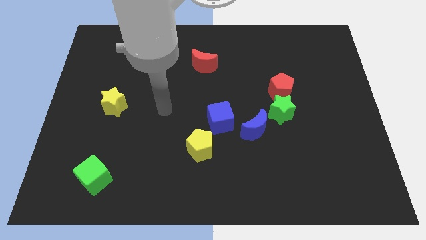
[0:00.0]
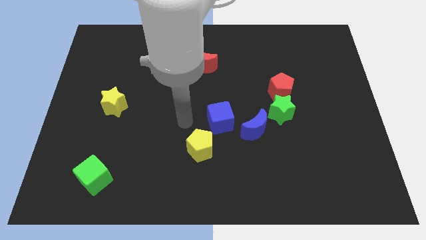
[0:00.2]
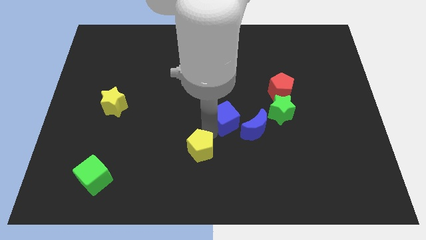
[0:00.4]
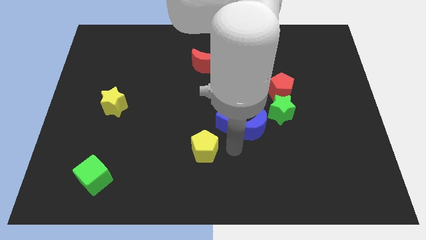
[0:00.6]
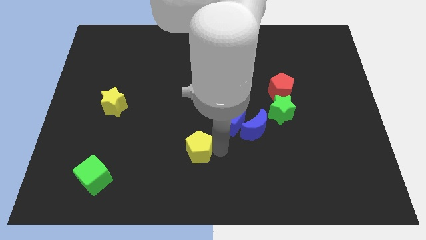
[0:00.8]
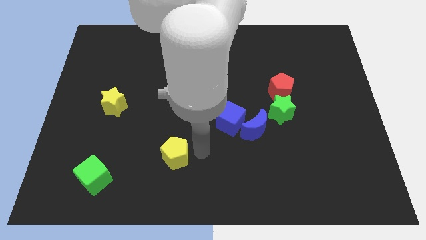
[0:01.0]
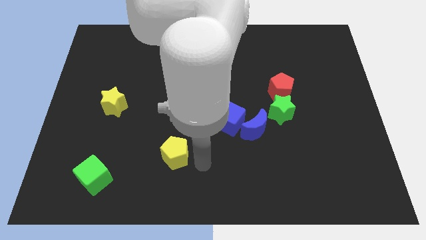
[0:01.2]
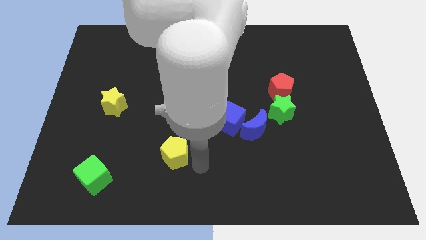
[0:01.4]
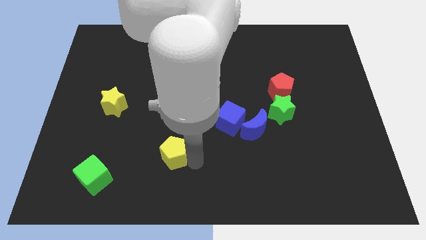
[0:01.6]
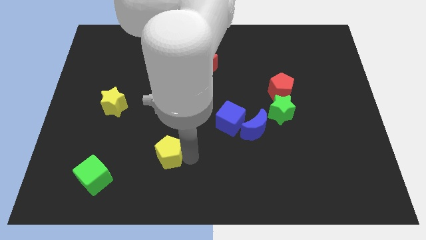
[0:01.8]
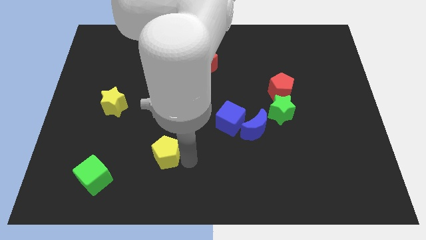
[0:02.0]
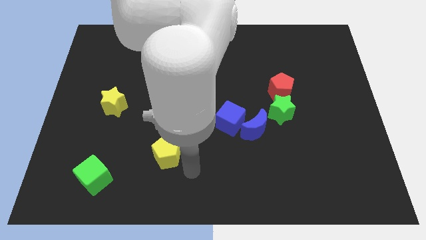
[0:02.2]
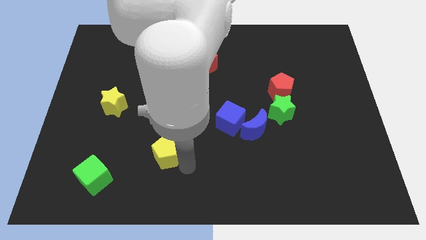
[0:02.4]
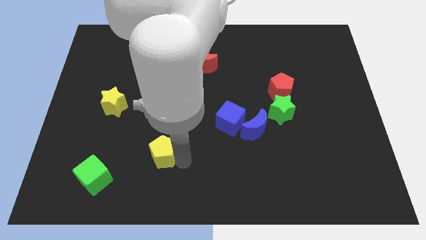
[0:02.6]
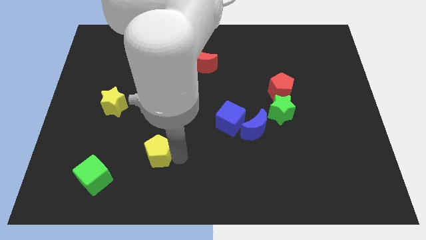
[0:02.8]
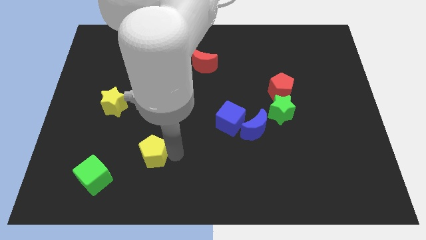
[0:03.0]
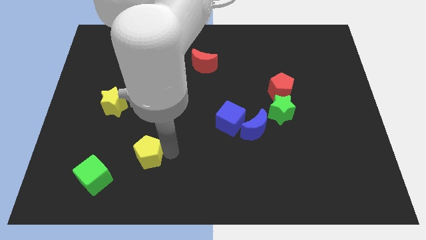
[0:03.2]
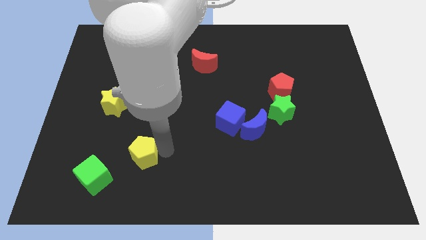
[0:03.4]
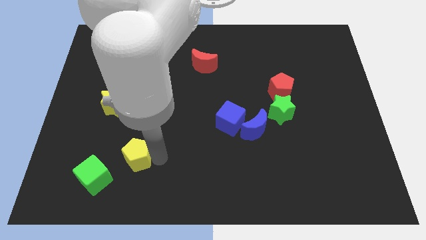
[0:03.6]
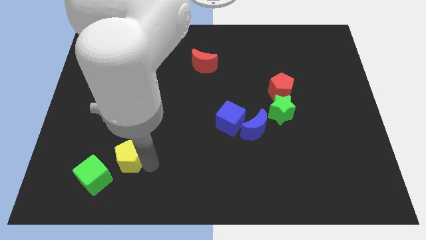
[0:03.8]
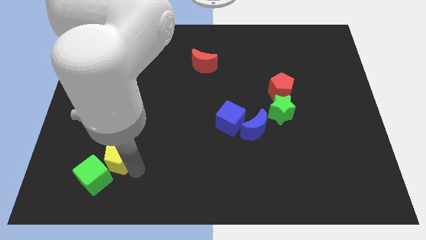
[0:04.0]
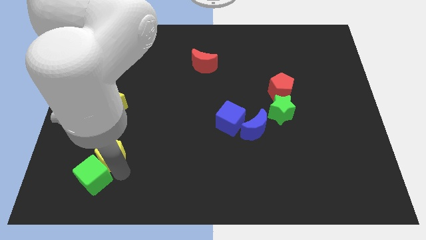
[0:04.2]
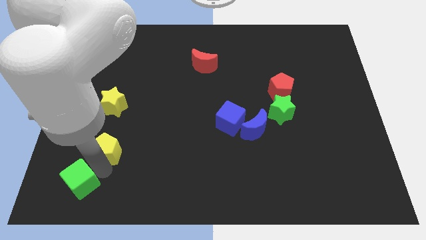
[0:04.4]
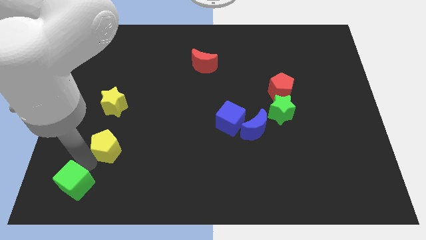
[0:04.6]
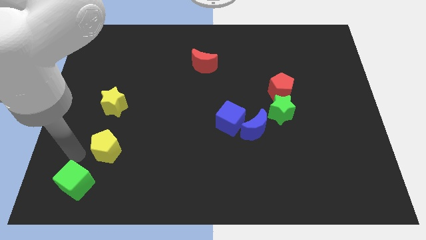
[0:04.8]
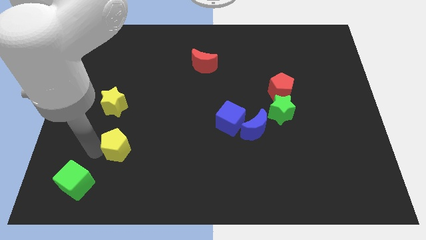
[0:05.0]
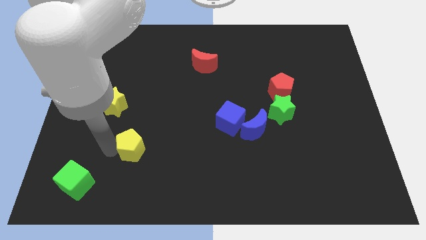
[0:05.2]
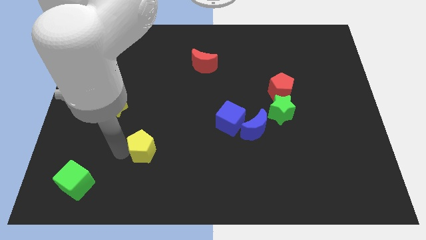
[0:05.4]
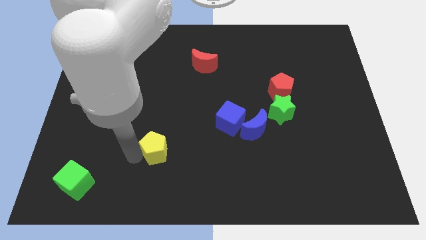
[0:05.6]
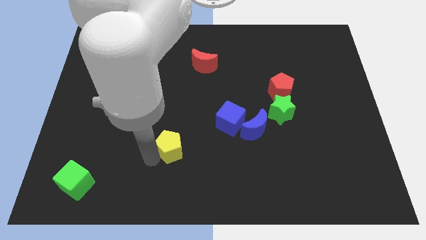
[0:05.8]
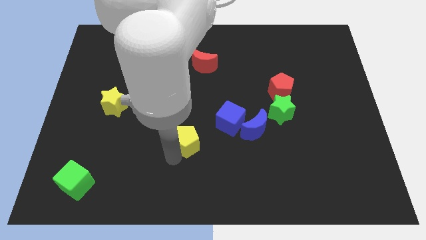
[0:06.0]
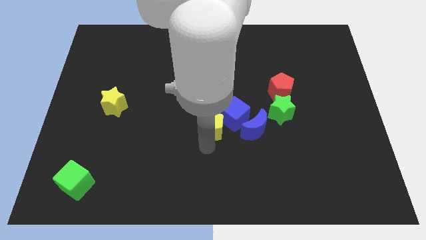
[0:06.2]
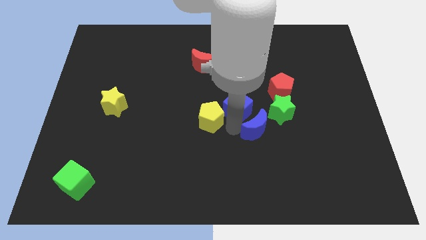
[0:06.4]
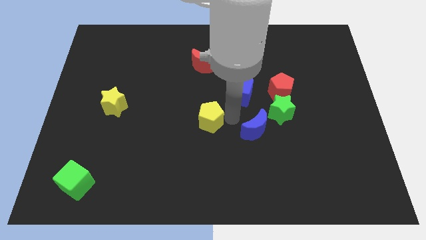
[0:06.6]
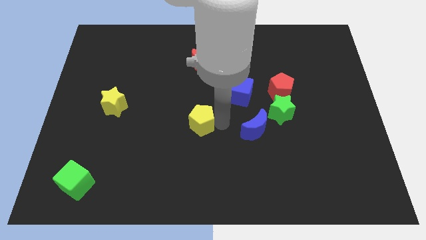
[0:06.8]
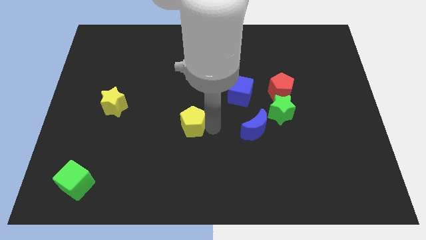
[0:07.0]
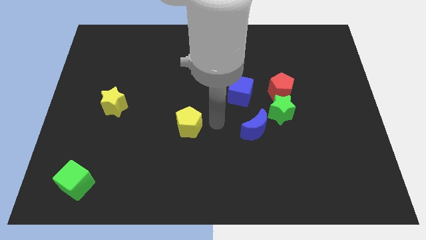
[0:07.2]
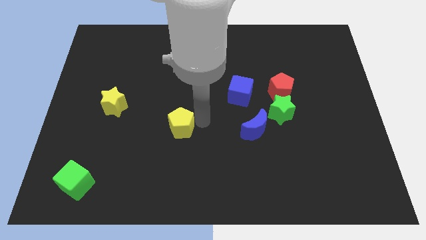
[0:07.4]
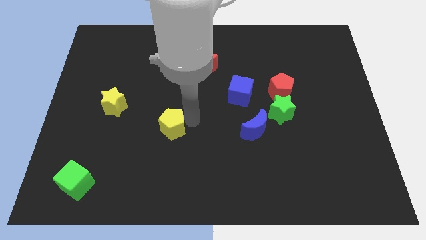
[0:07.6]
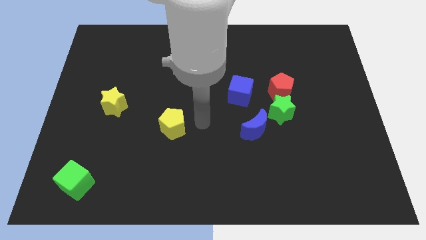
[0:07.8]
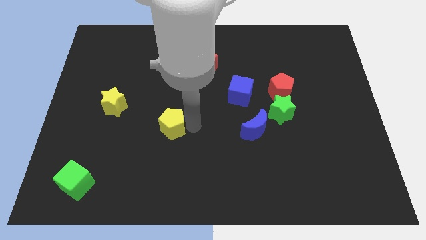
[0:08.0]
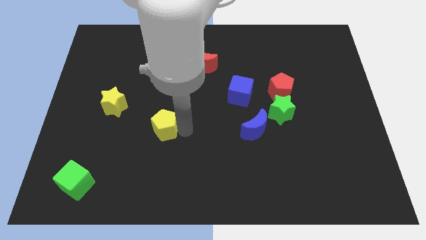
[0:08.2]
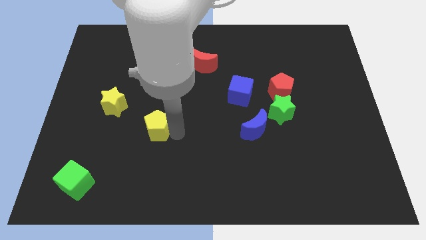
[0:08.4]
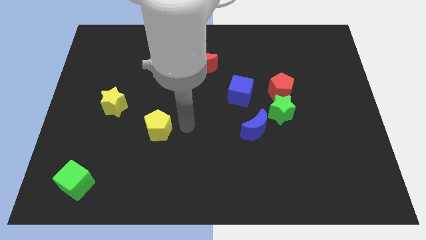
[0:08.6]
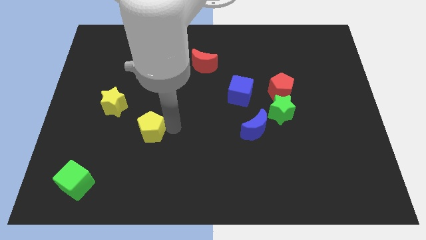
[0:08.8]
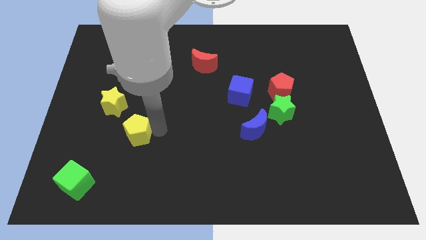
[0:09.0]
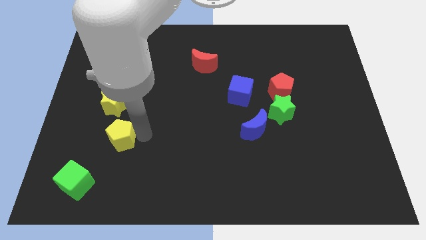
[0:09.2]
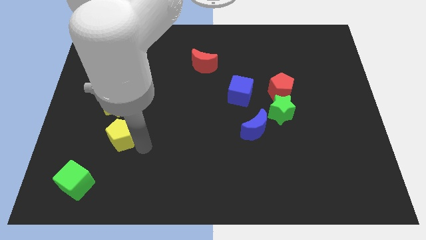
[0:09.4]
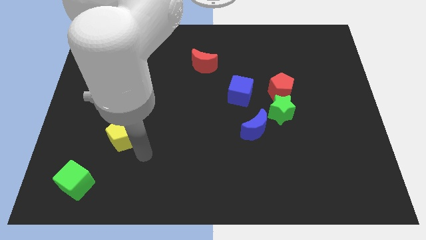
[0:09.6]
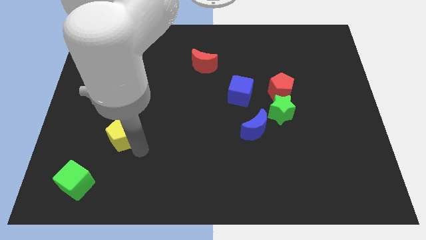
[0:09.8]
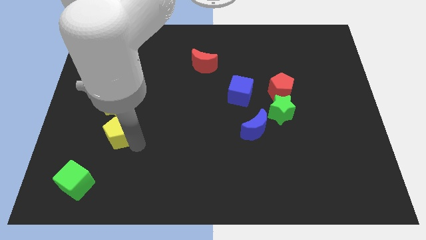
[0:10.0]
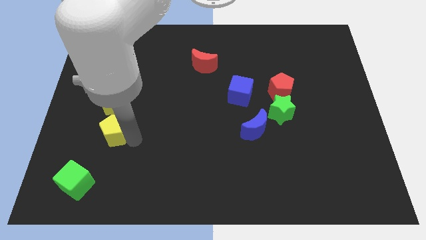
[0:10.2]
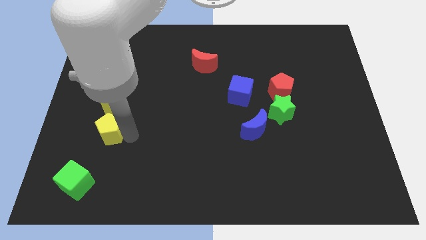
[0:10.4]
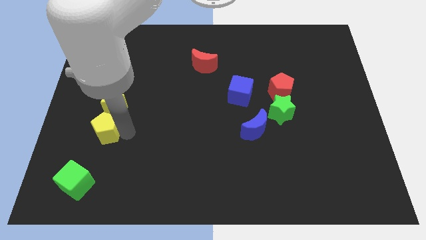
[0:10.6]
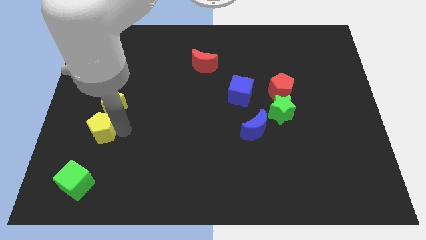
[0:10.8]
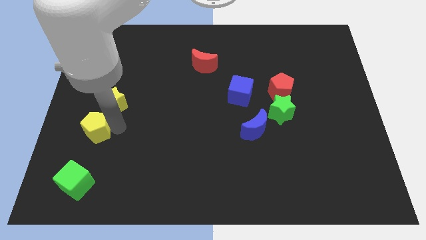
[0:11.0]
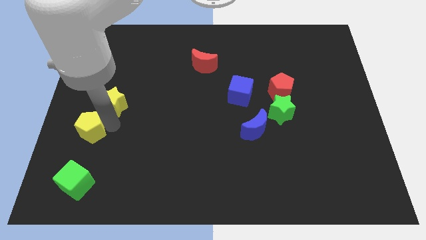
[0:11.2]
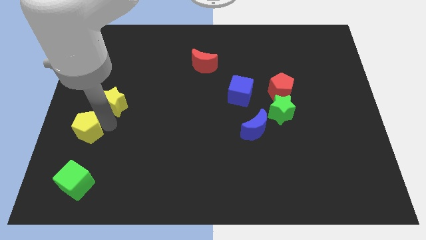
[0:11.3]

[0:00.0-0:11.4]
slide the yellow pentagon to the center left
